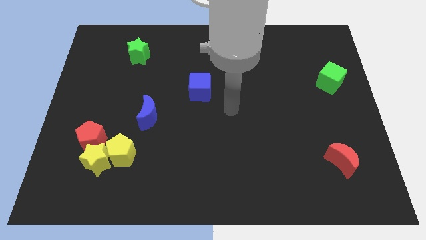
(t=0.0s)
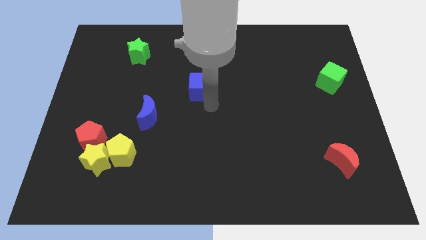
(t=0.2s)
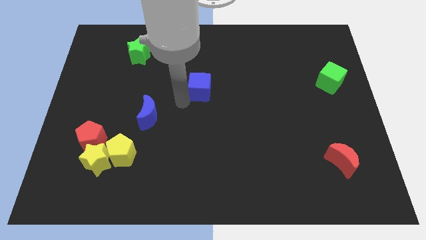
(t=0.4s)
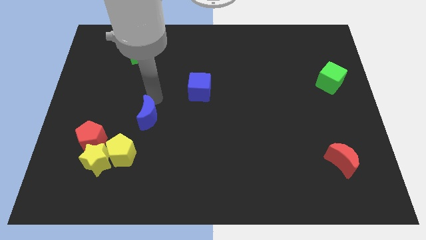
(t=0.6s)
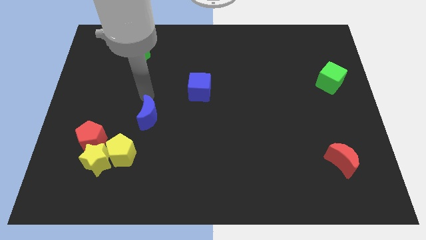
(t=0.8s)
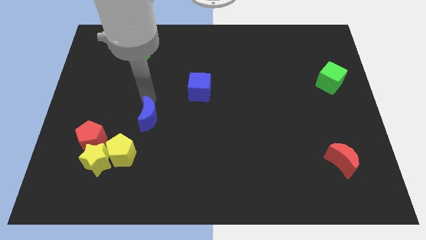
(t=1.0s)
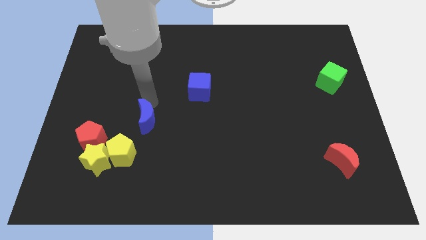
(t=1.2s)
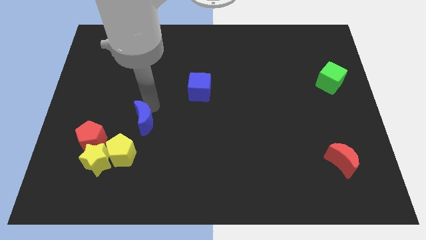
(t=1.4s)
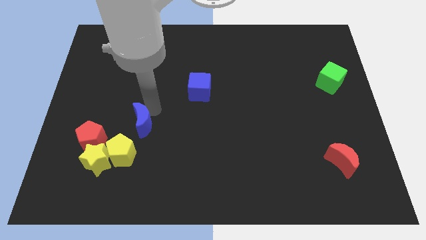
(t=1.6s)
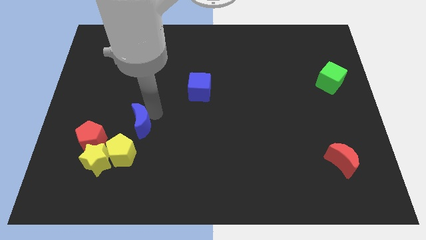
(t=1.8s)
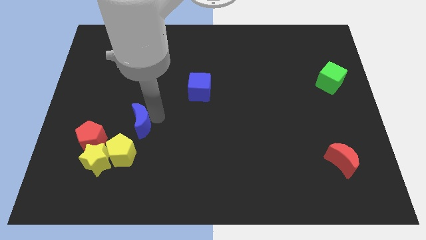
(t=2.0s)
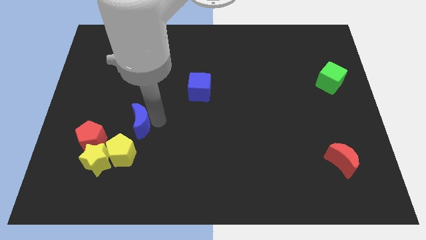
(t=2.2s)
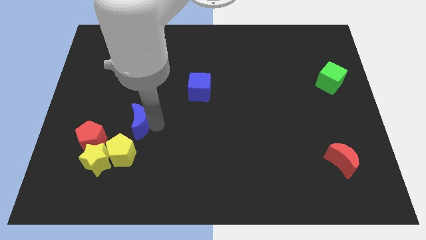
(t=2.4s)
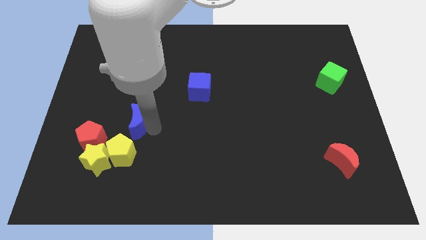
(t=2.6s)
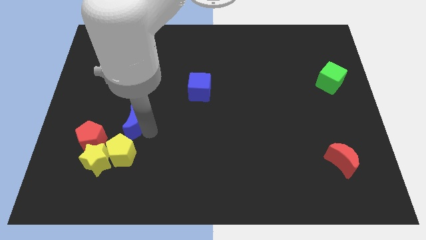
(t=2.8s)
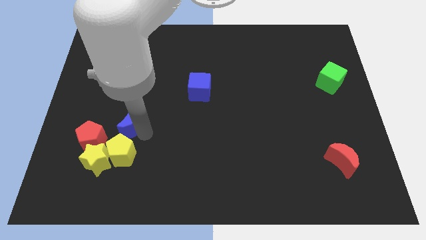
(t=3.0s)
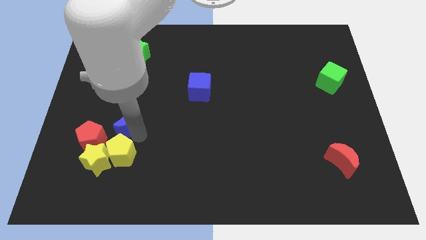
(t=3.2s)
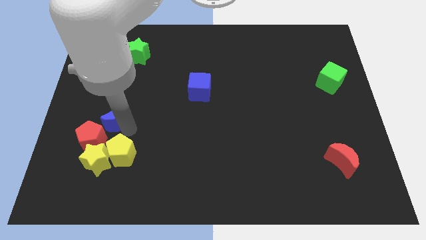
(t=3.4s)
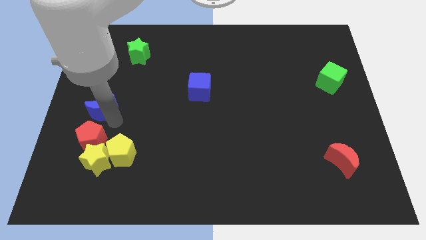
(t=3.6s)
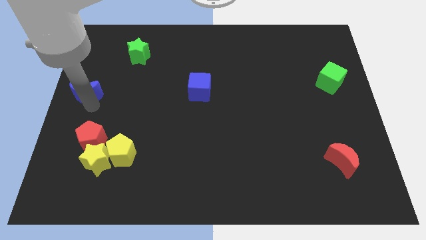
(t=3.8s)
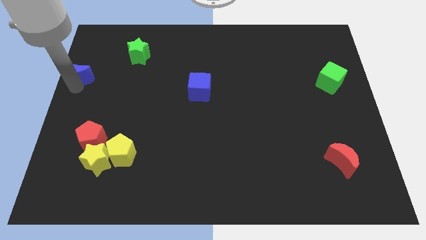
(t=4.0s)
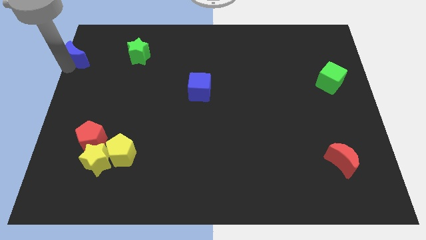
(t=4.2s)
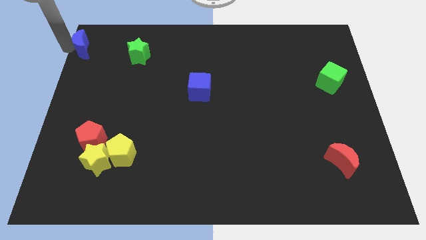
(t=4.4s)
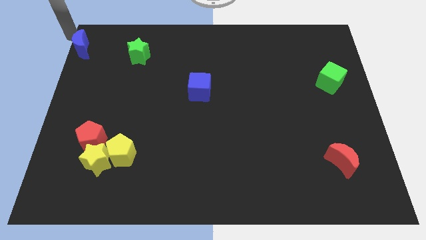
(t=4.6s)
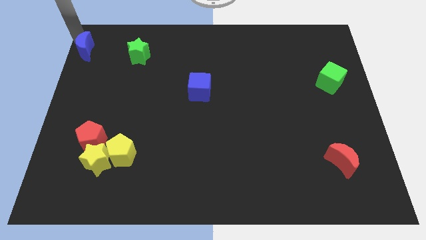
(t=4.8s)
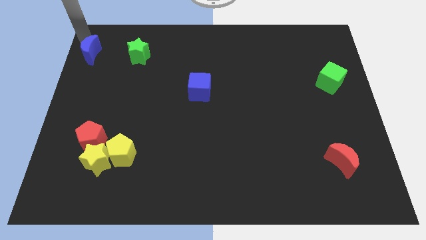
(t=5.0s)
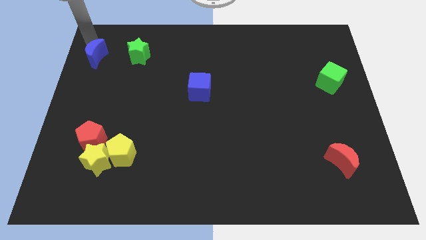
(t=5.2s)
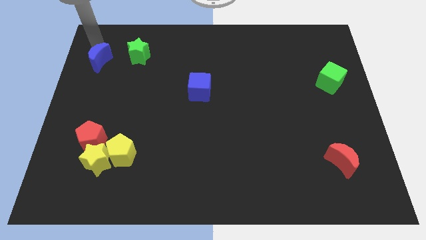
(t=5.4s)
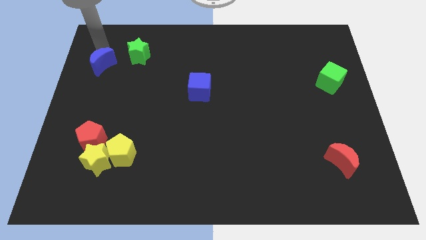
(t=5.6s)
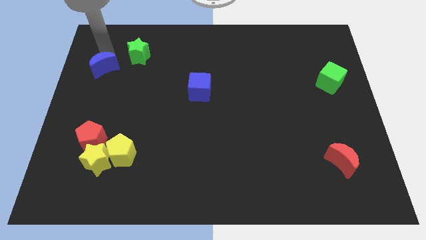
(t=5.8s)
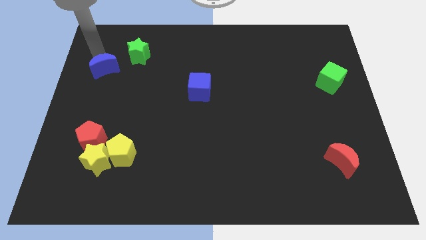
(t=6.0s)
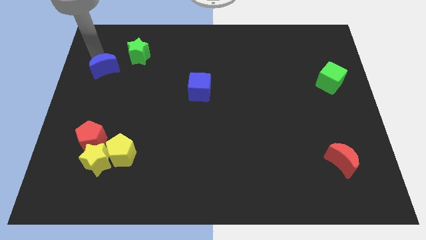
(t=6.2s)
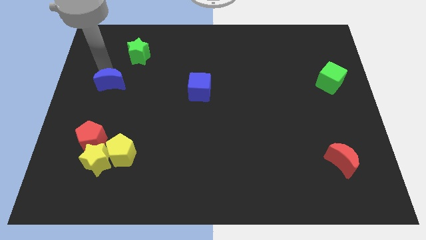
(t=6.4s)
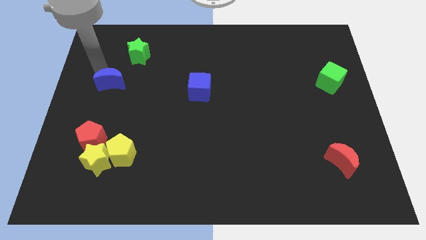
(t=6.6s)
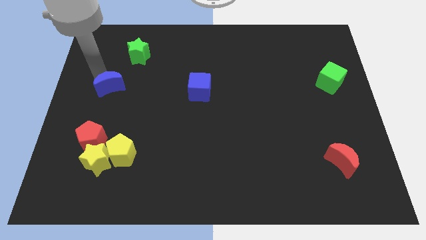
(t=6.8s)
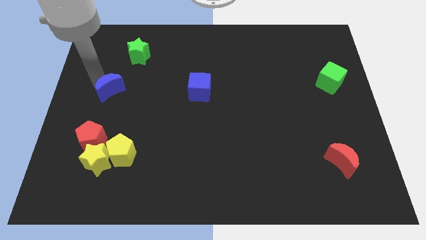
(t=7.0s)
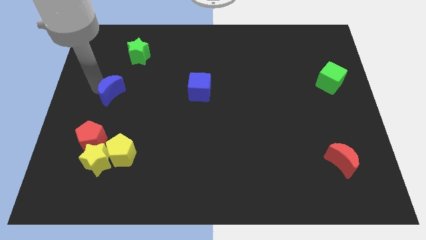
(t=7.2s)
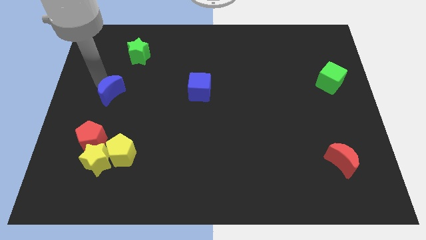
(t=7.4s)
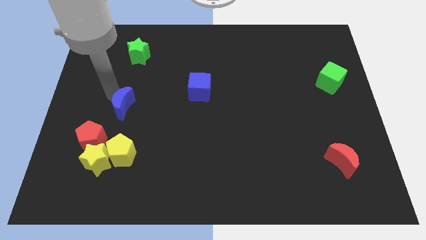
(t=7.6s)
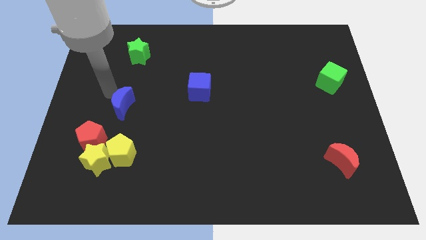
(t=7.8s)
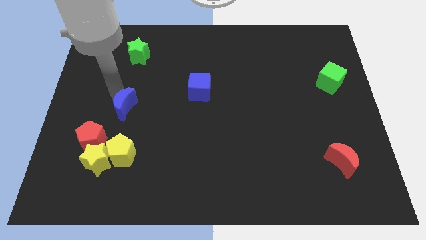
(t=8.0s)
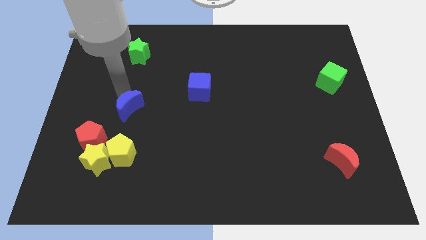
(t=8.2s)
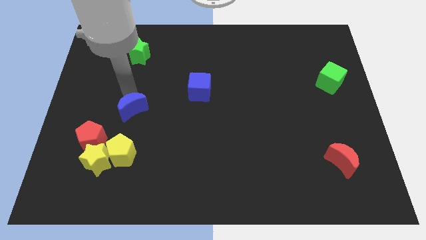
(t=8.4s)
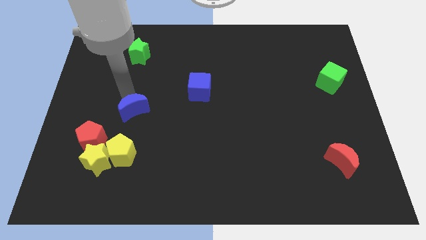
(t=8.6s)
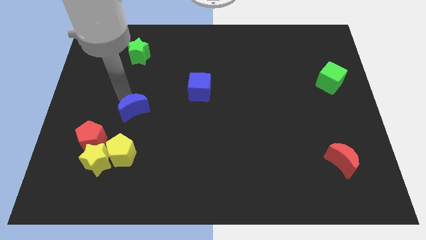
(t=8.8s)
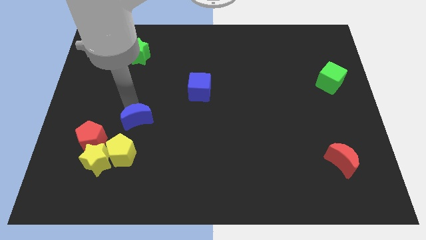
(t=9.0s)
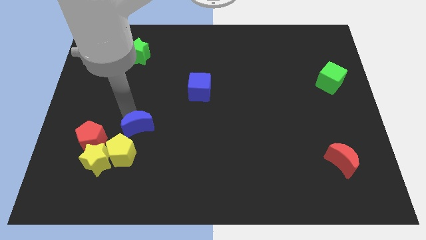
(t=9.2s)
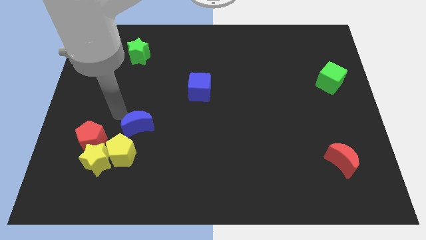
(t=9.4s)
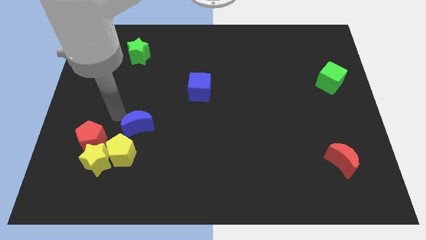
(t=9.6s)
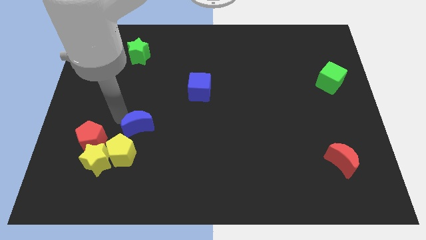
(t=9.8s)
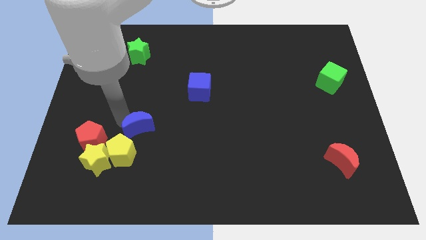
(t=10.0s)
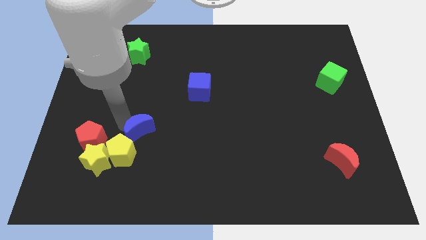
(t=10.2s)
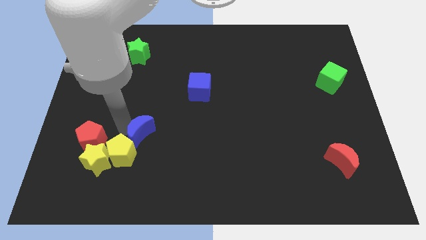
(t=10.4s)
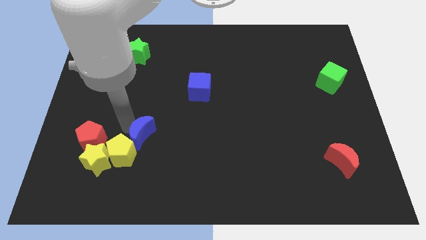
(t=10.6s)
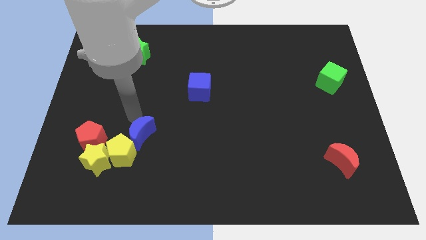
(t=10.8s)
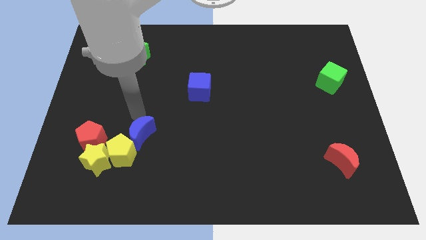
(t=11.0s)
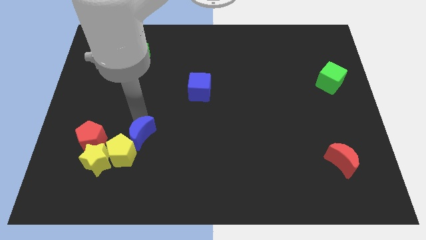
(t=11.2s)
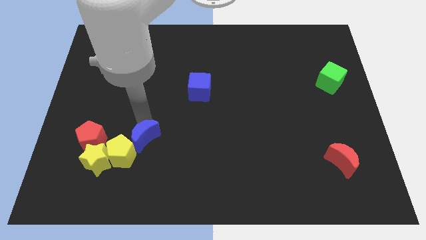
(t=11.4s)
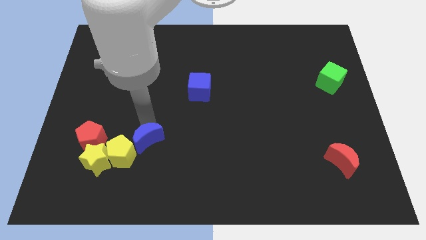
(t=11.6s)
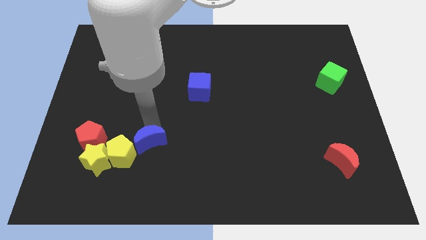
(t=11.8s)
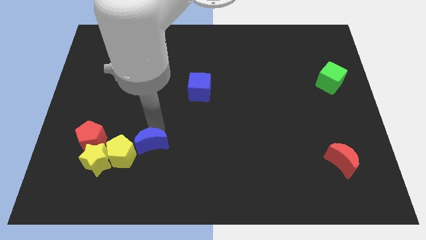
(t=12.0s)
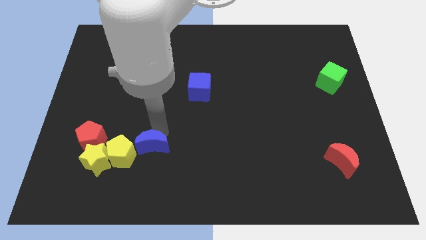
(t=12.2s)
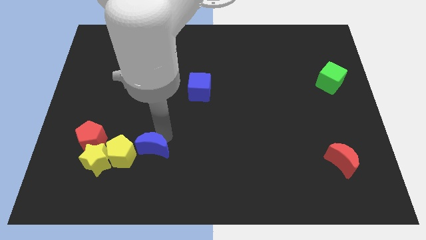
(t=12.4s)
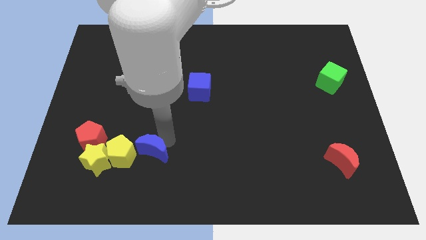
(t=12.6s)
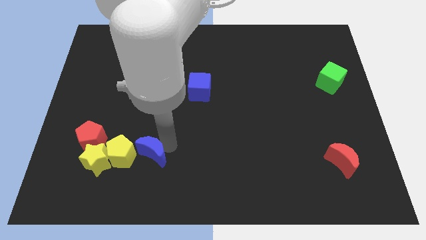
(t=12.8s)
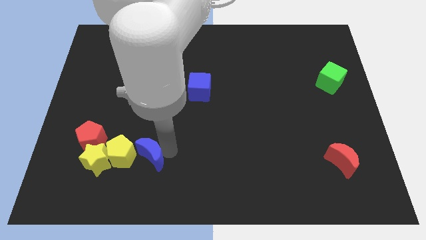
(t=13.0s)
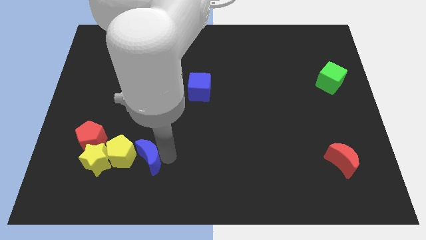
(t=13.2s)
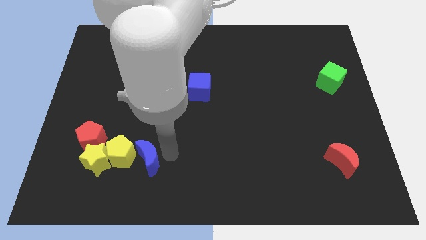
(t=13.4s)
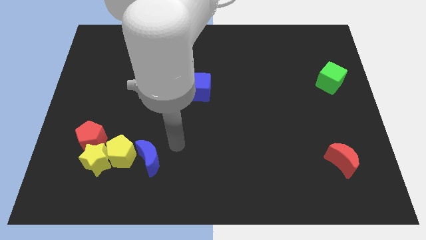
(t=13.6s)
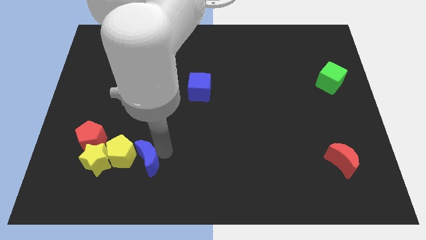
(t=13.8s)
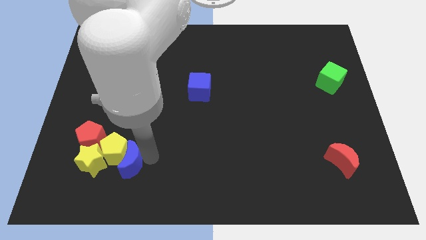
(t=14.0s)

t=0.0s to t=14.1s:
slightly slide the blue moon downwards and left

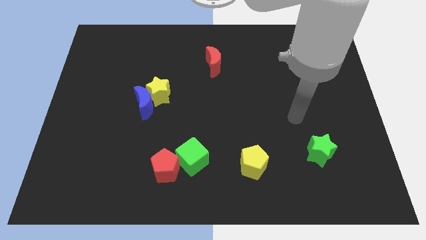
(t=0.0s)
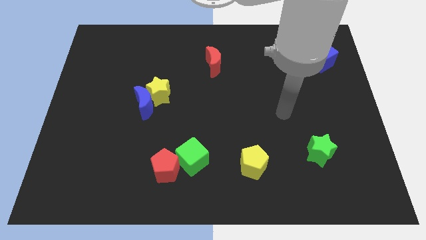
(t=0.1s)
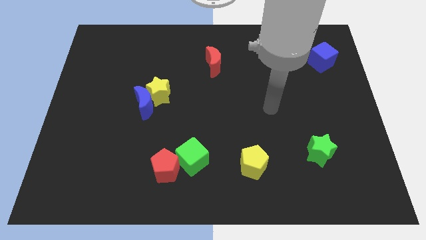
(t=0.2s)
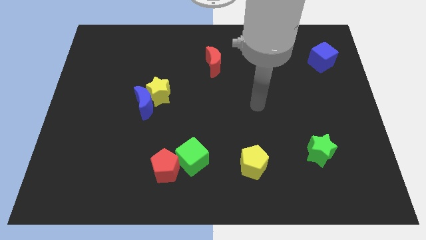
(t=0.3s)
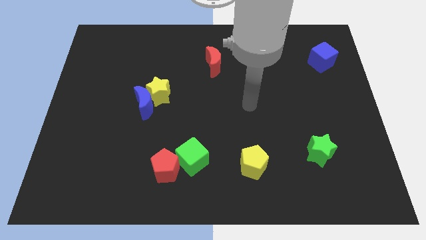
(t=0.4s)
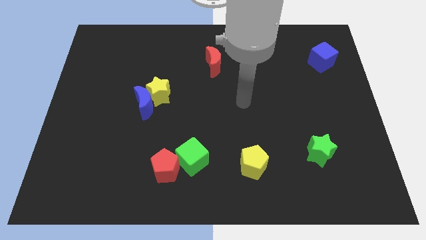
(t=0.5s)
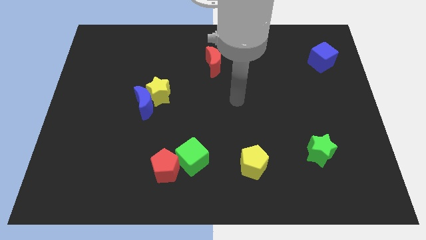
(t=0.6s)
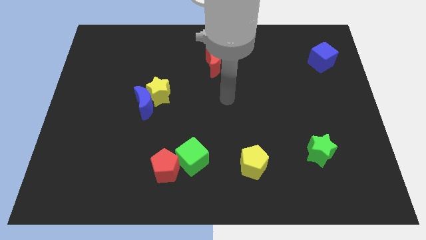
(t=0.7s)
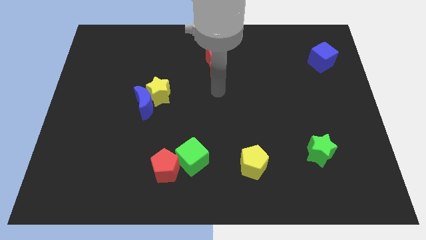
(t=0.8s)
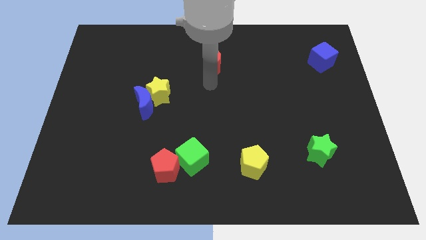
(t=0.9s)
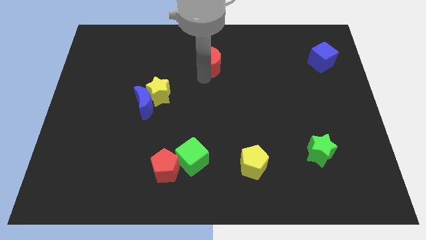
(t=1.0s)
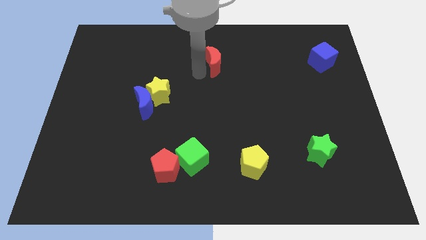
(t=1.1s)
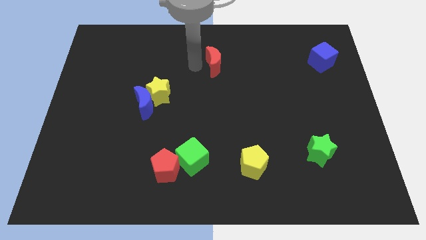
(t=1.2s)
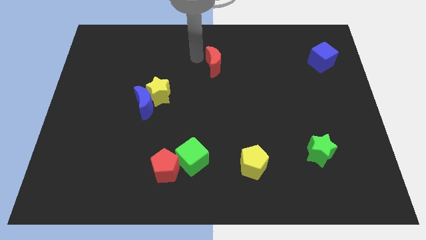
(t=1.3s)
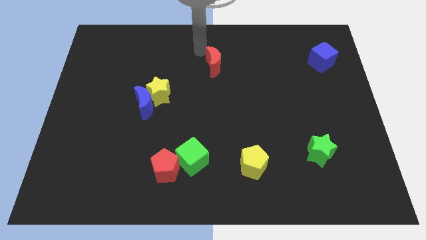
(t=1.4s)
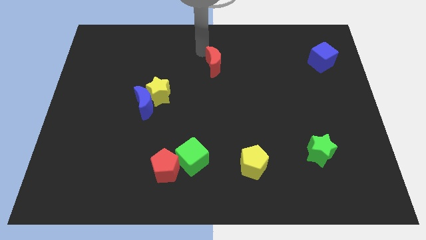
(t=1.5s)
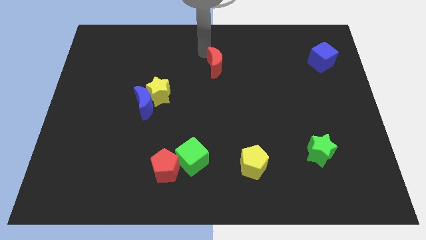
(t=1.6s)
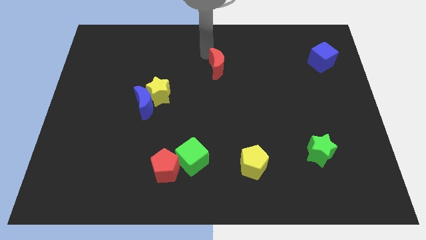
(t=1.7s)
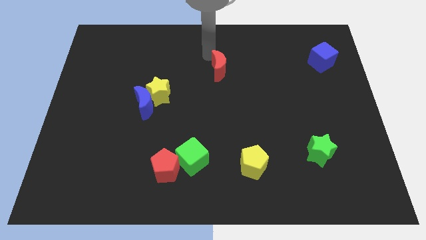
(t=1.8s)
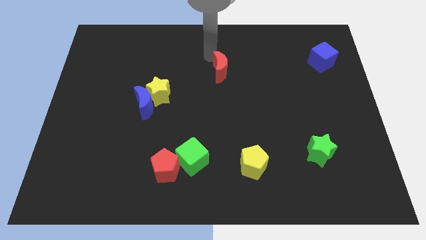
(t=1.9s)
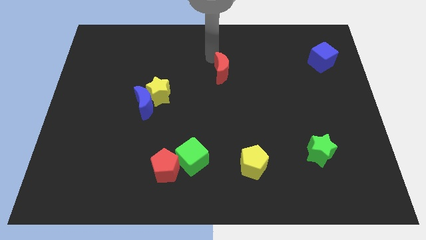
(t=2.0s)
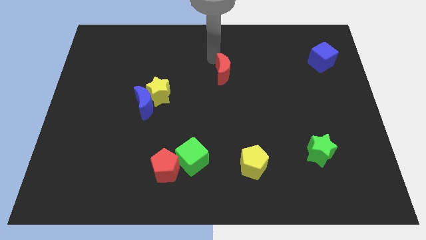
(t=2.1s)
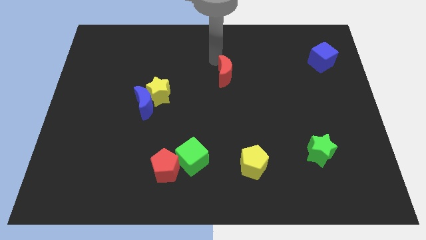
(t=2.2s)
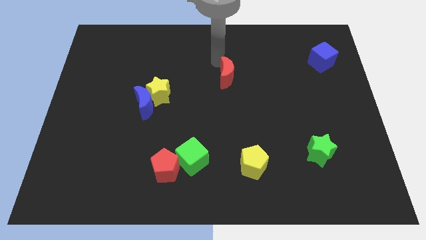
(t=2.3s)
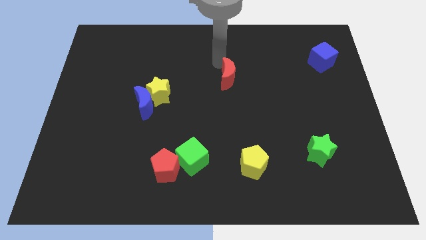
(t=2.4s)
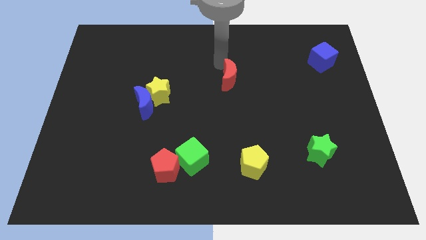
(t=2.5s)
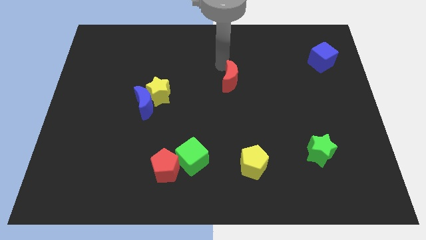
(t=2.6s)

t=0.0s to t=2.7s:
move the red moon a bit diagonally downwards and to the right
